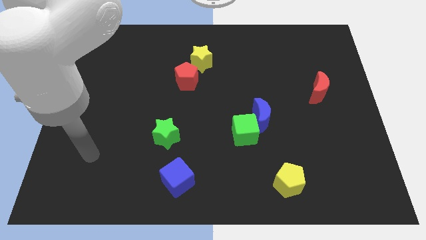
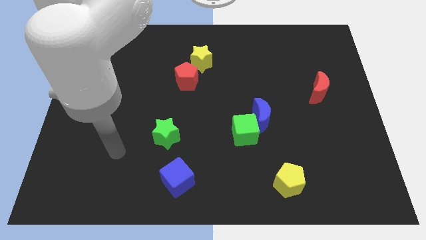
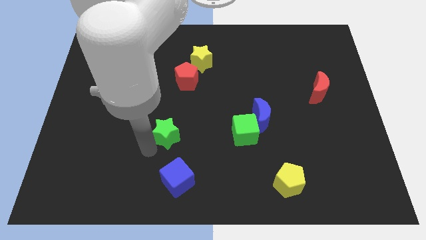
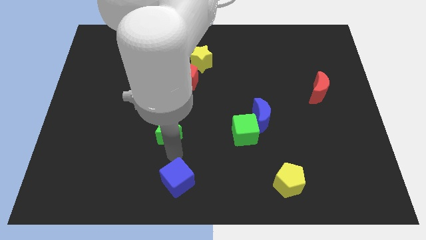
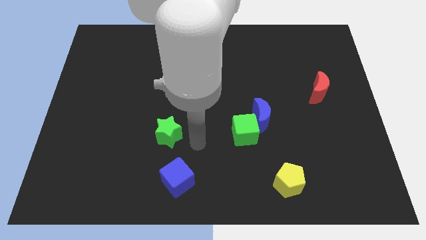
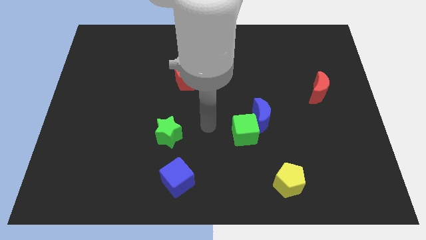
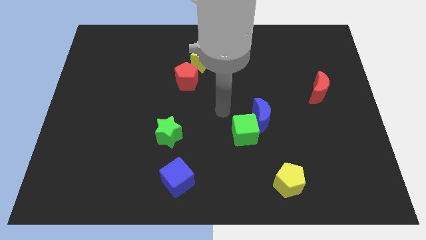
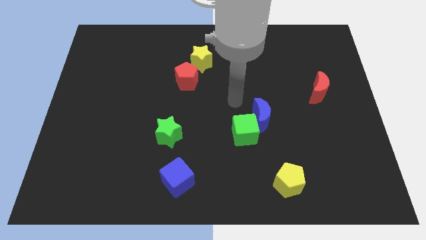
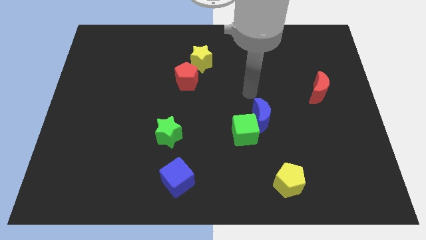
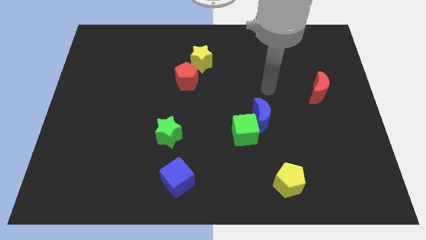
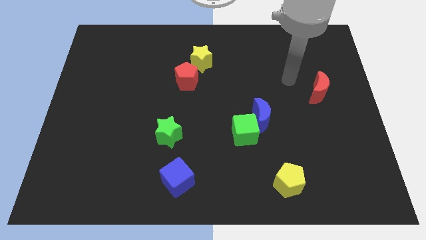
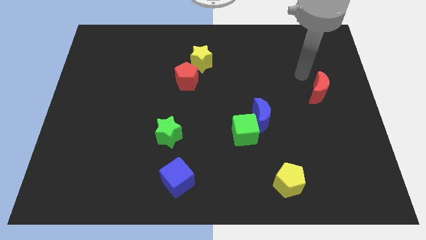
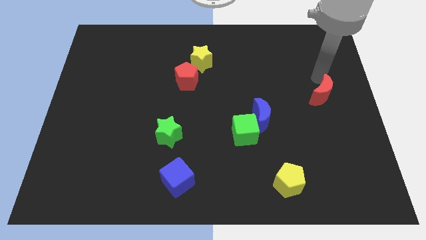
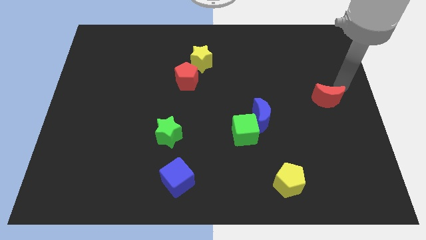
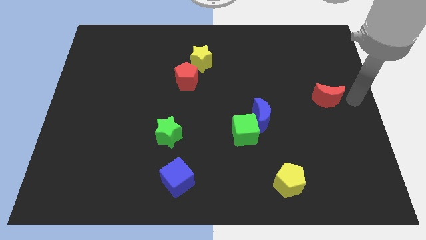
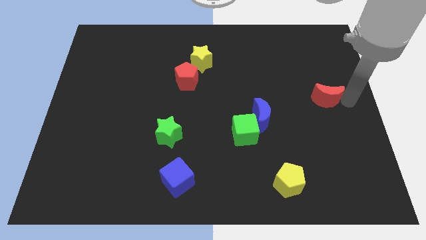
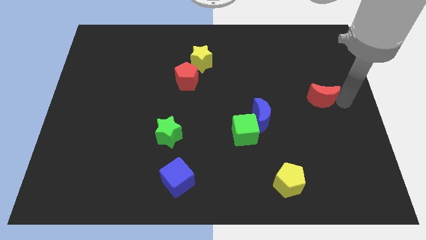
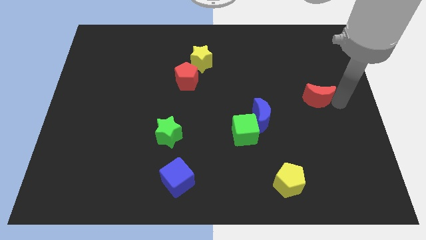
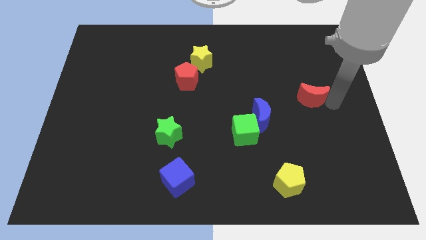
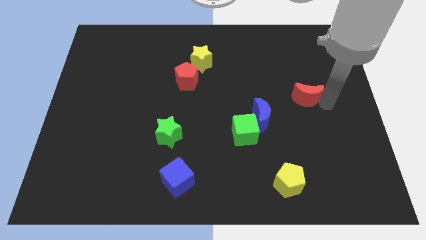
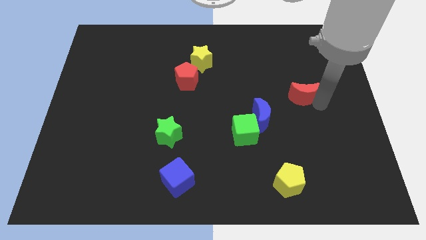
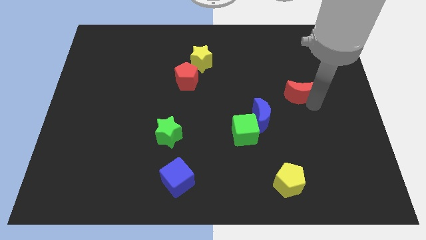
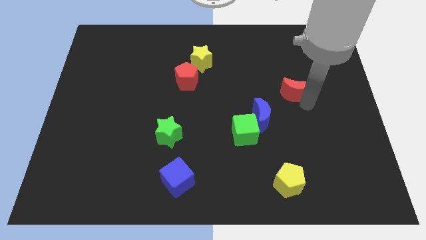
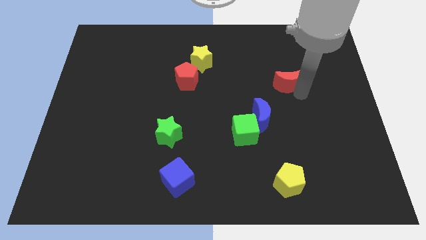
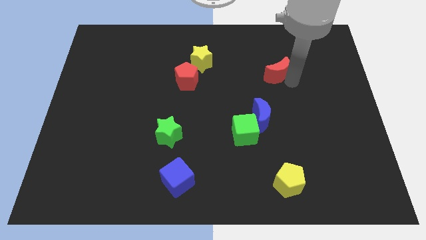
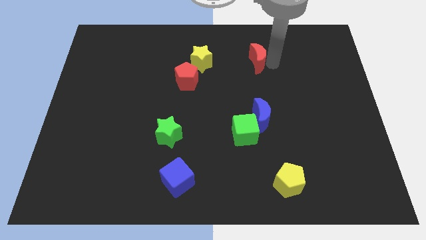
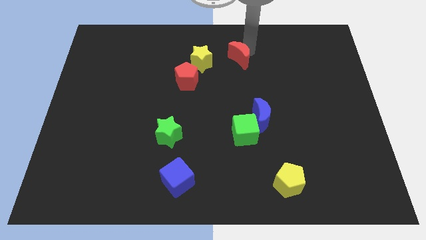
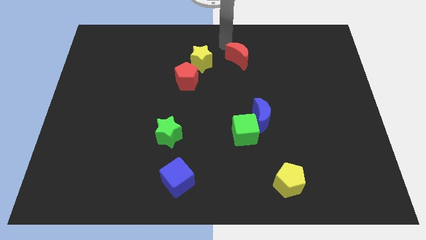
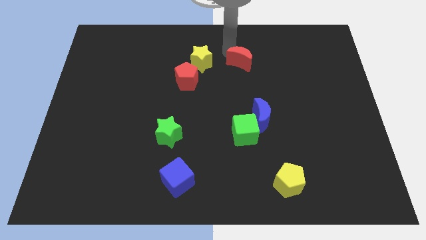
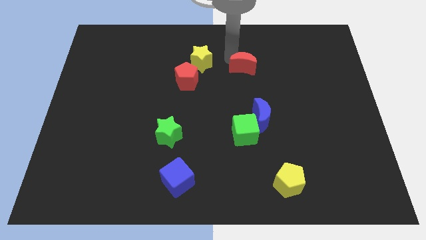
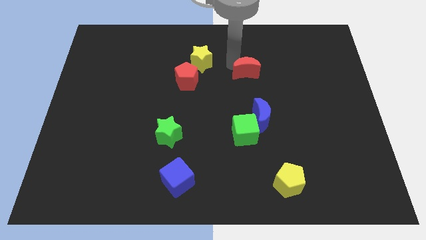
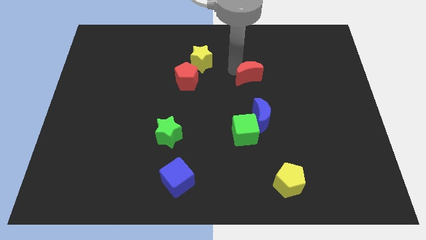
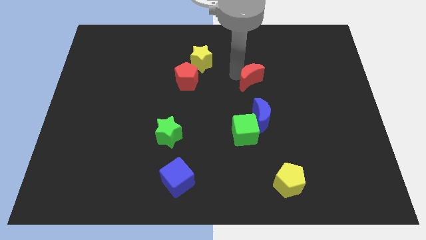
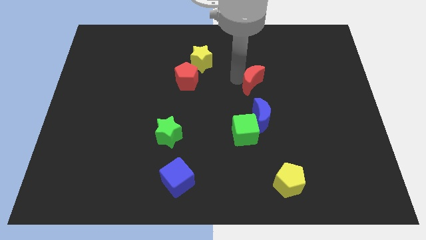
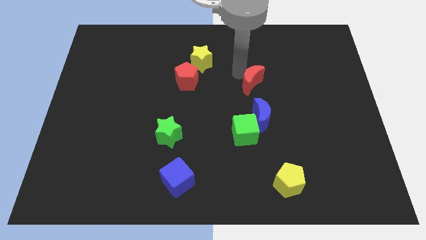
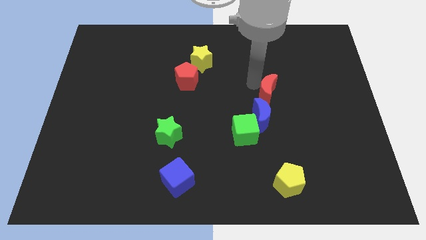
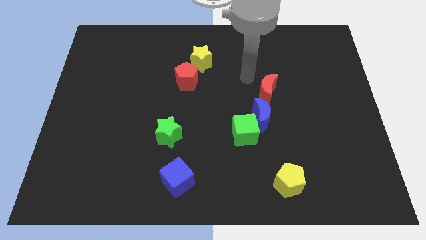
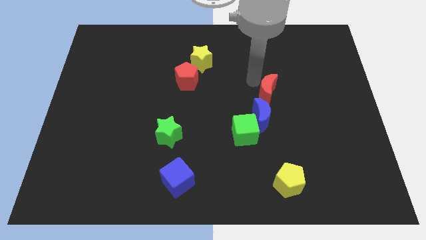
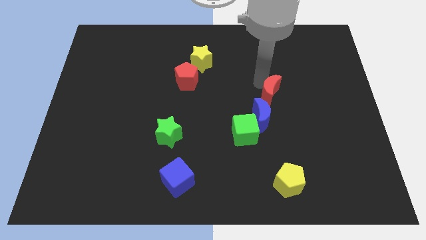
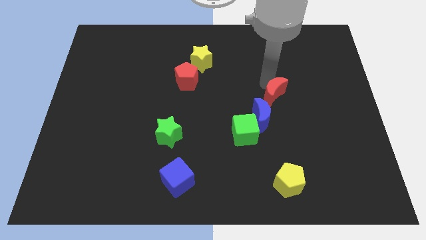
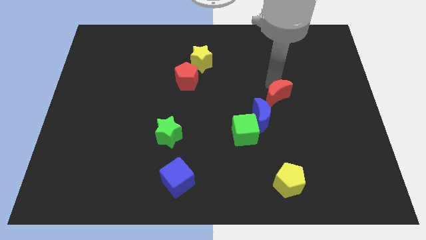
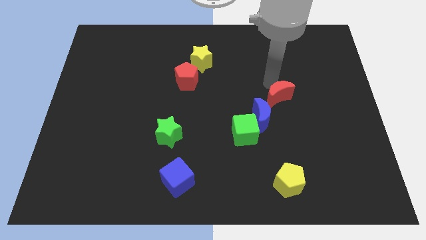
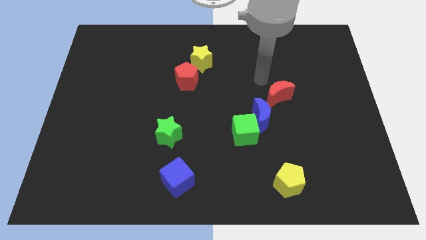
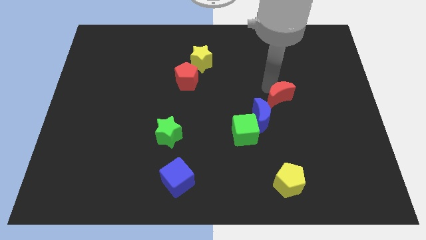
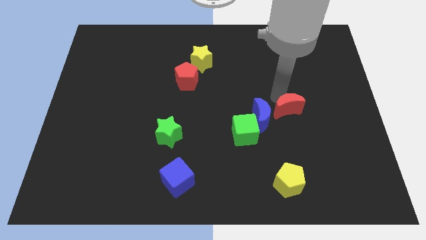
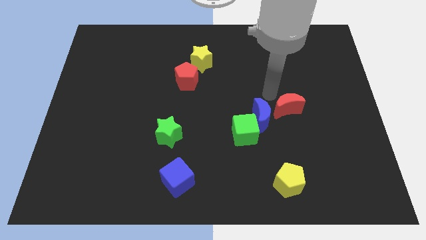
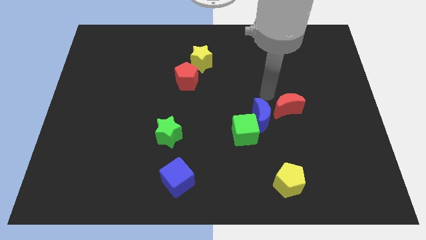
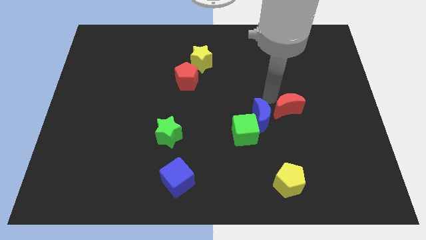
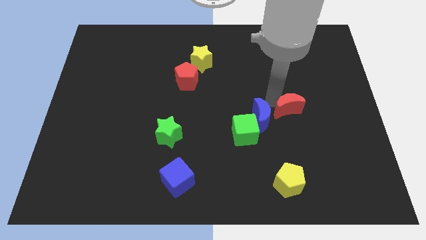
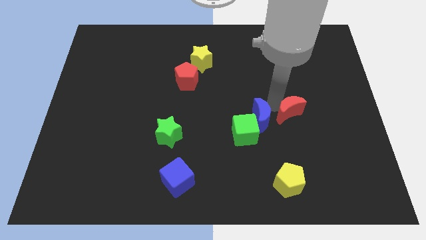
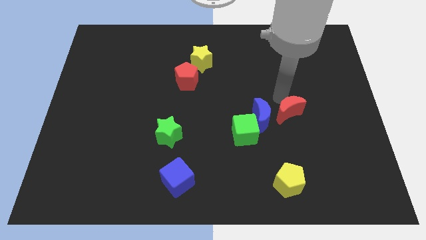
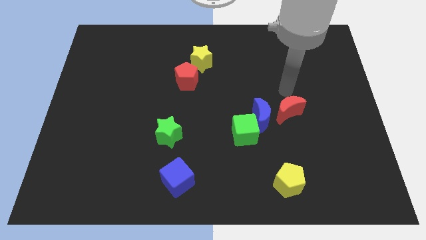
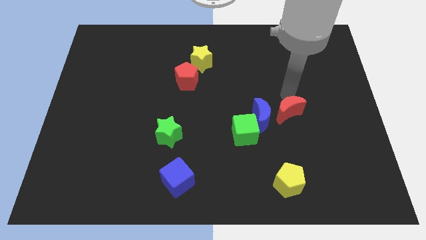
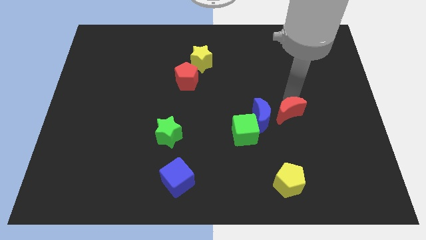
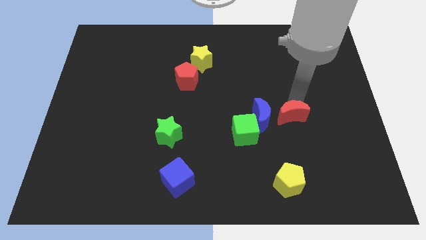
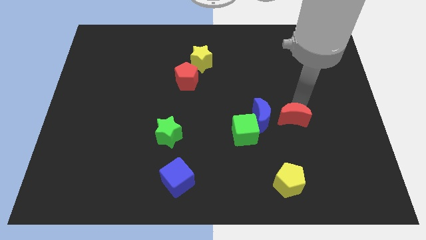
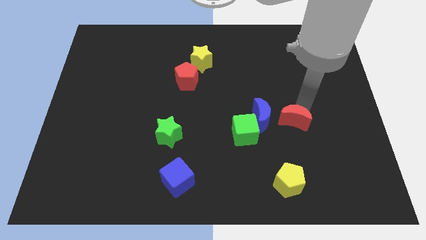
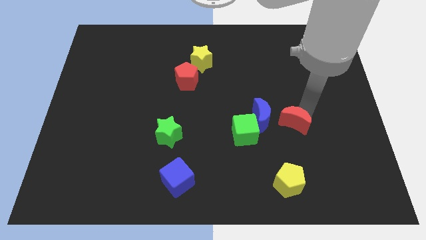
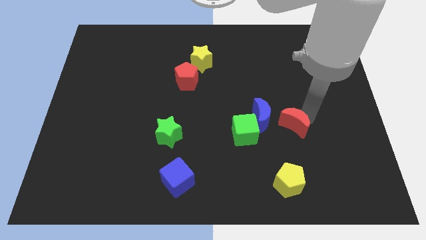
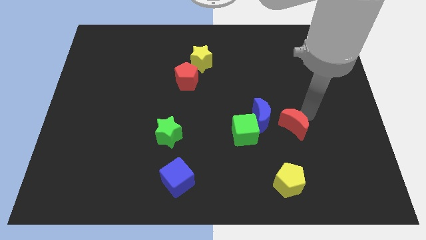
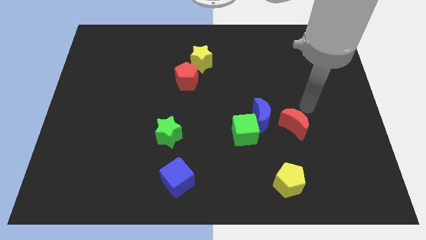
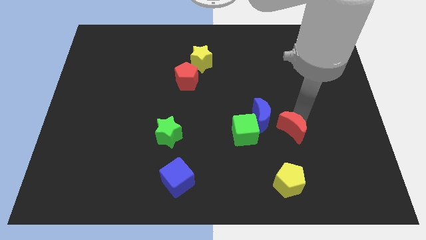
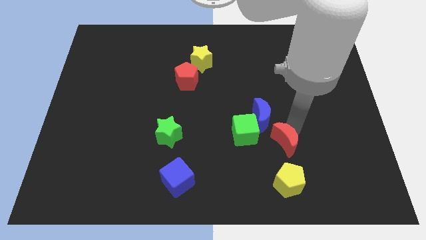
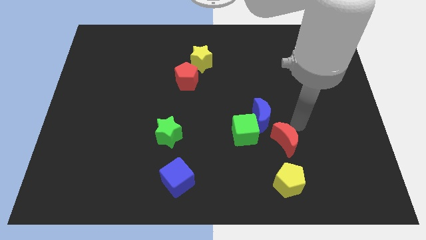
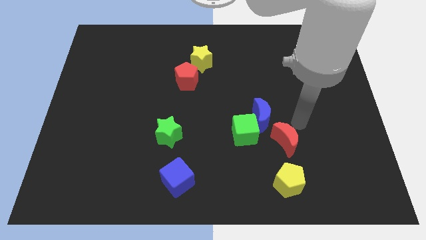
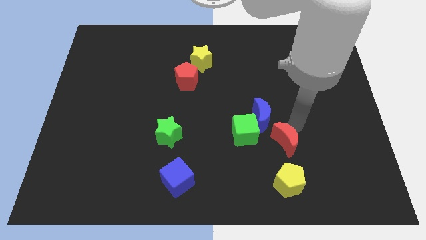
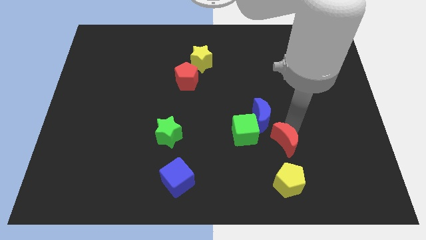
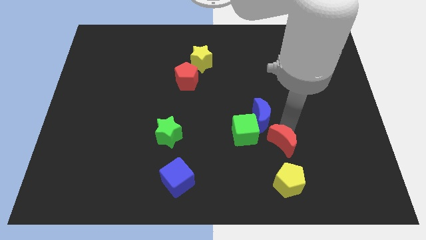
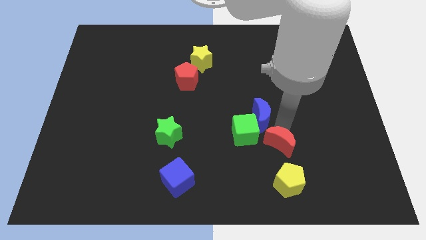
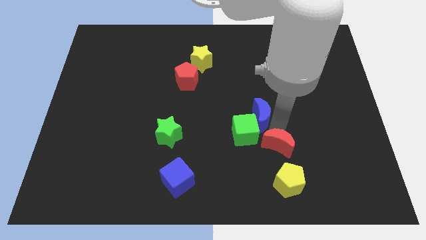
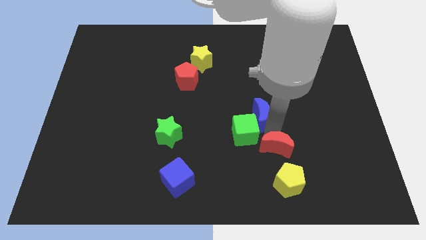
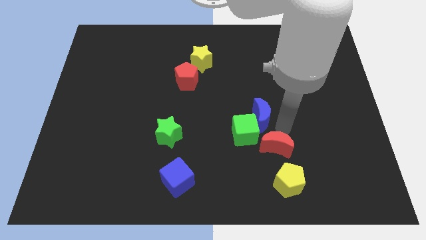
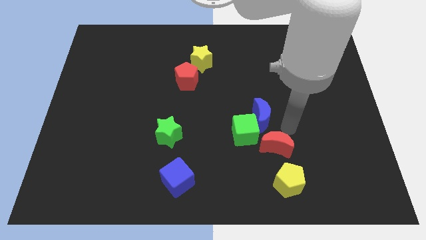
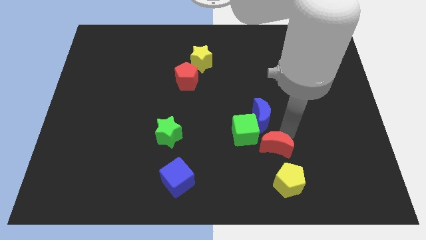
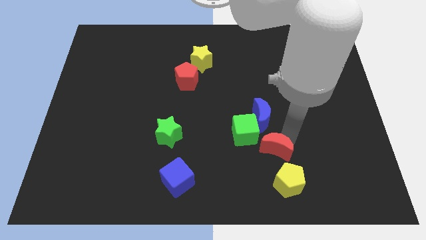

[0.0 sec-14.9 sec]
push the red moon diagonally downwards and left

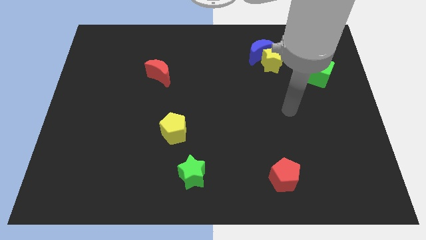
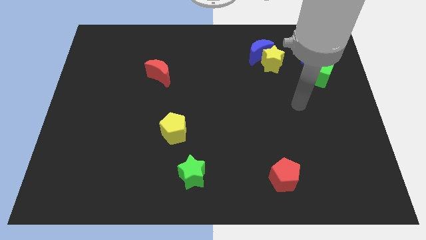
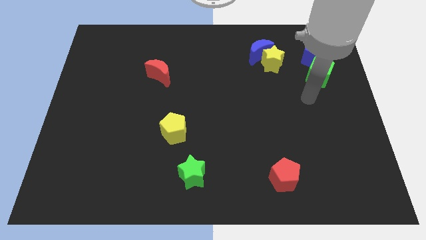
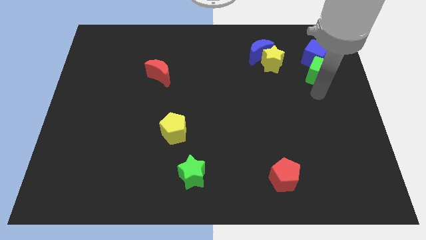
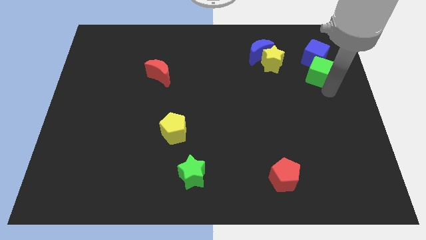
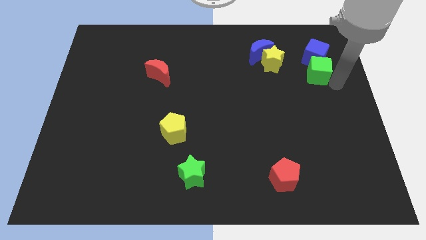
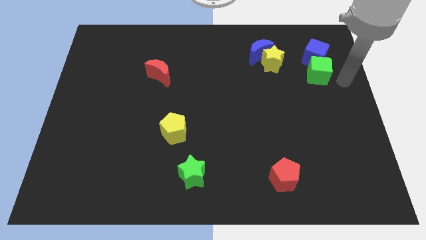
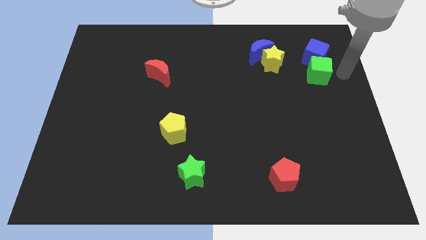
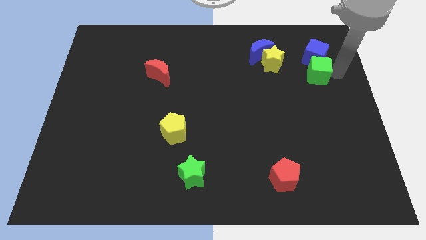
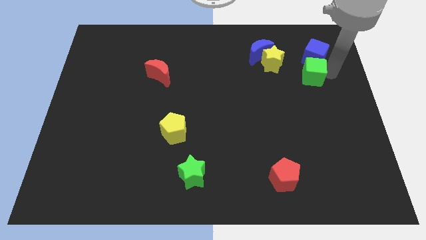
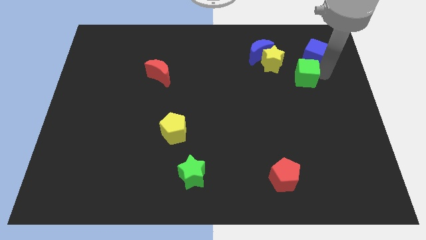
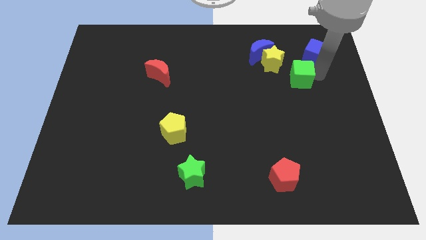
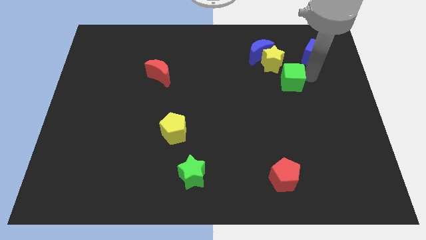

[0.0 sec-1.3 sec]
move the green cube a little left
